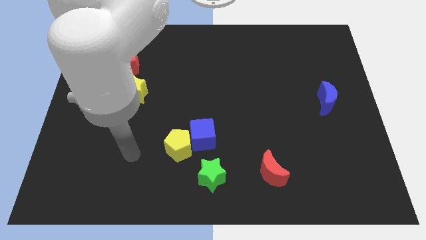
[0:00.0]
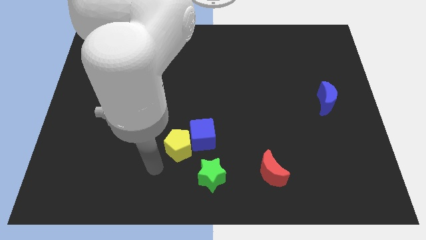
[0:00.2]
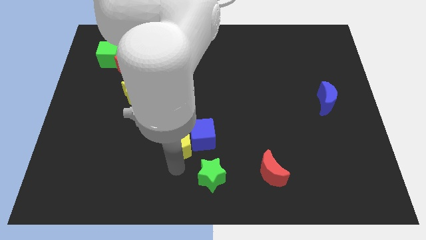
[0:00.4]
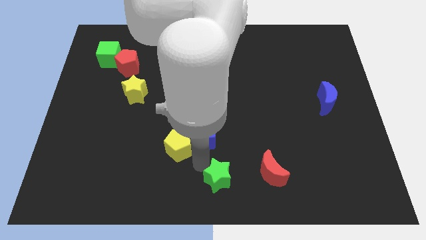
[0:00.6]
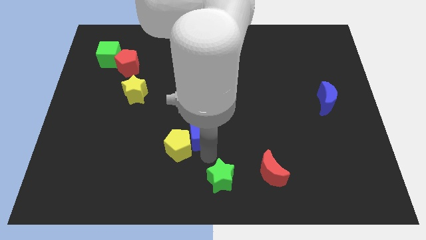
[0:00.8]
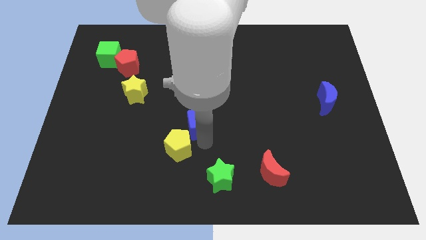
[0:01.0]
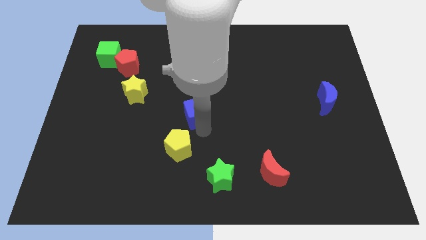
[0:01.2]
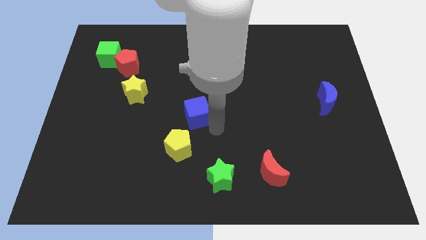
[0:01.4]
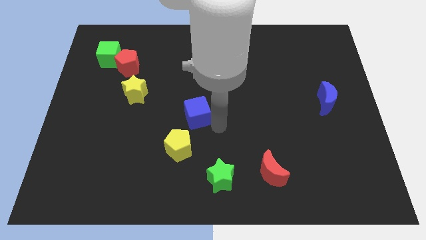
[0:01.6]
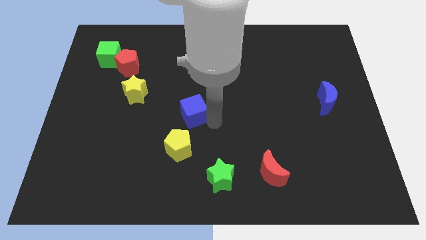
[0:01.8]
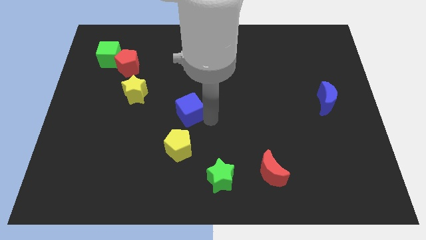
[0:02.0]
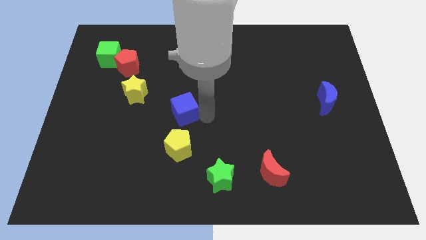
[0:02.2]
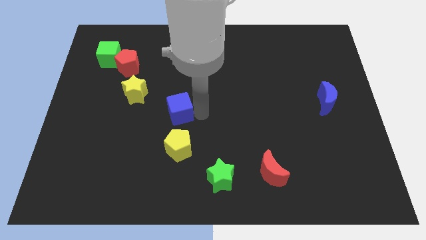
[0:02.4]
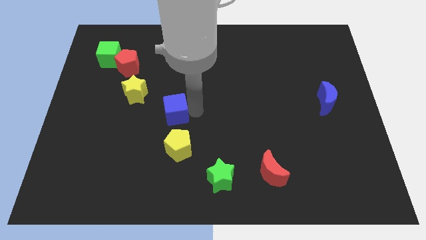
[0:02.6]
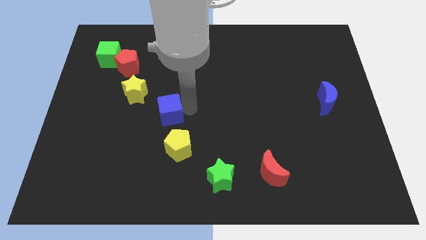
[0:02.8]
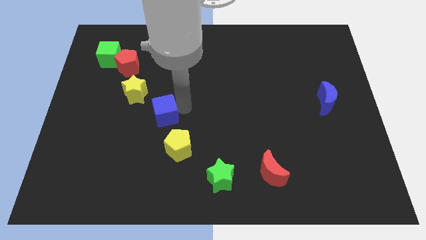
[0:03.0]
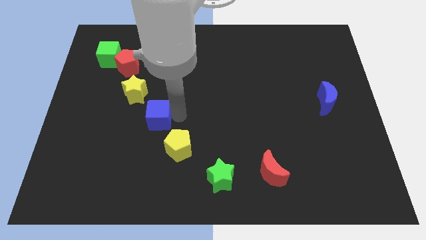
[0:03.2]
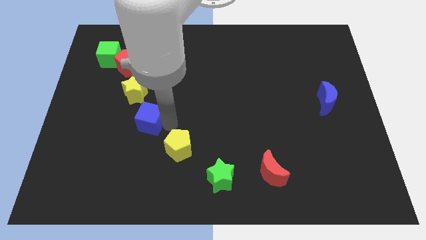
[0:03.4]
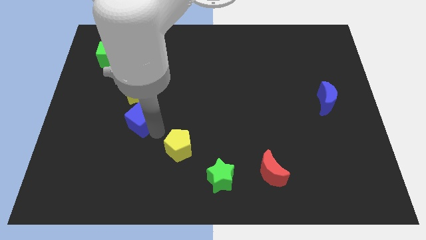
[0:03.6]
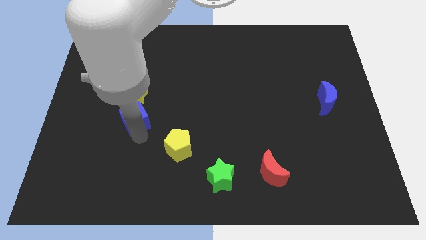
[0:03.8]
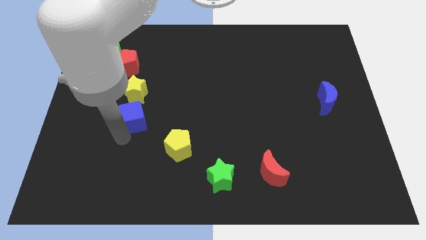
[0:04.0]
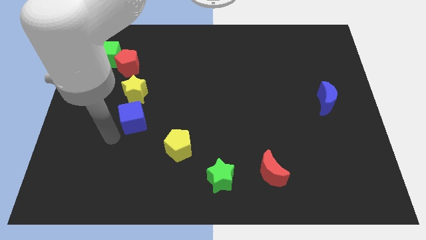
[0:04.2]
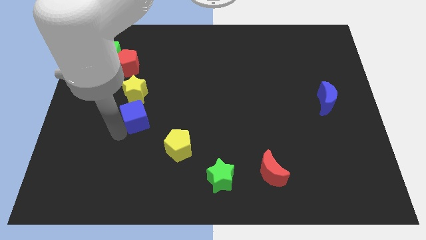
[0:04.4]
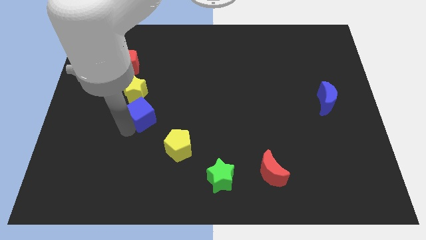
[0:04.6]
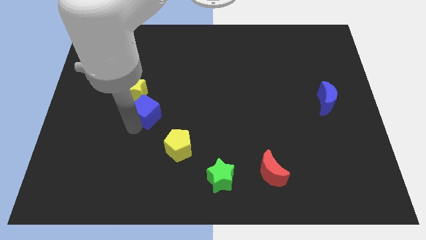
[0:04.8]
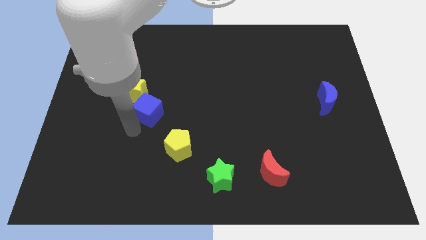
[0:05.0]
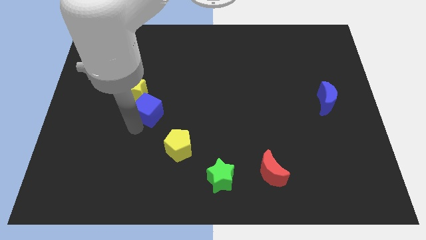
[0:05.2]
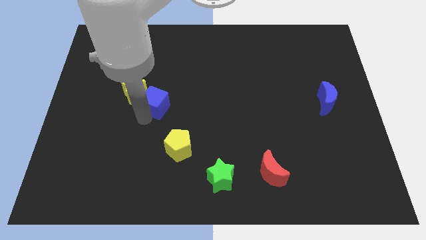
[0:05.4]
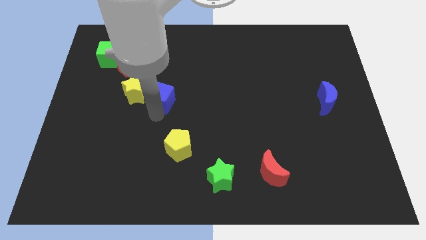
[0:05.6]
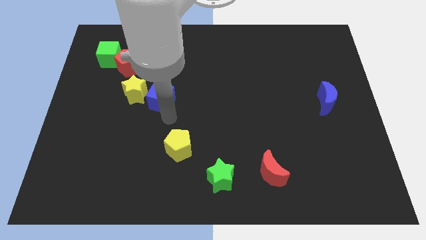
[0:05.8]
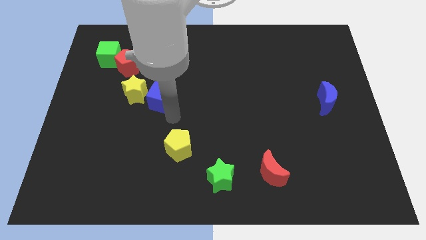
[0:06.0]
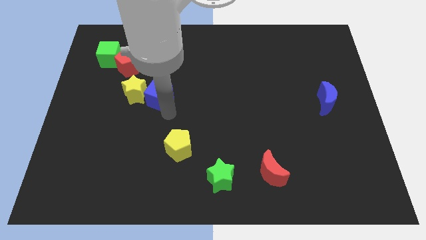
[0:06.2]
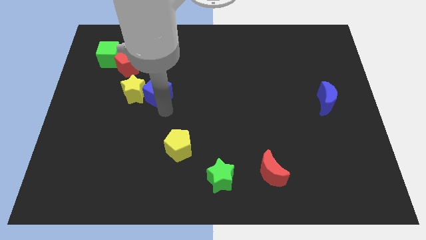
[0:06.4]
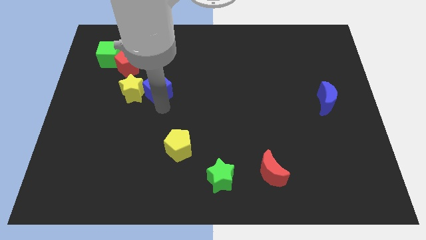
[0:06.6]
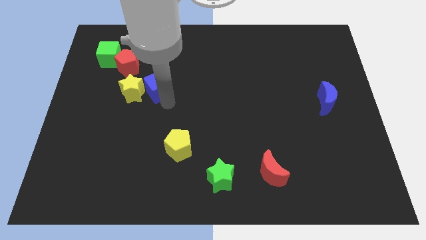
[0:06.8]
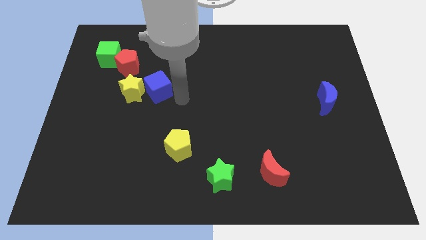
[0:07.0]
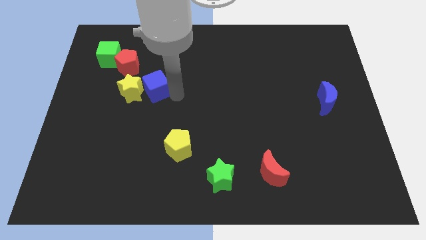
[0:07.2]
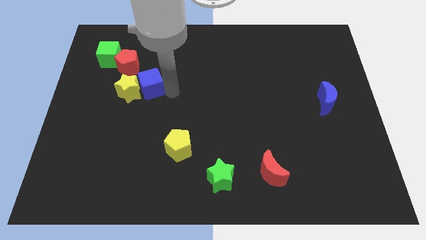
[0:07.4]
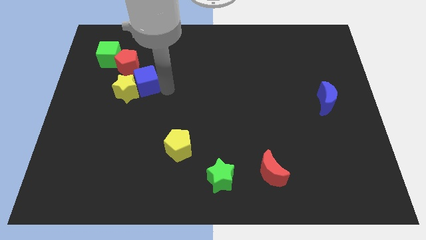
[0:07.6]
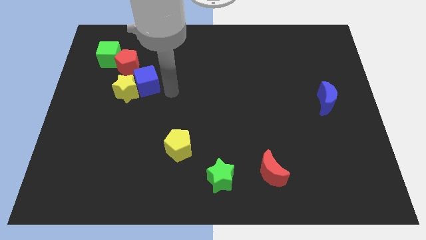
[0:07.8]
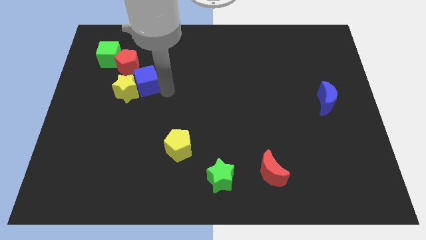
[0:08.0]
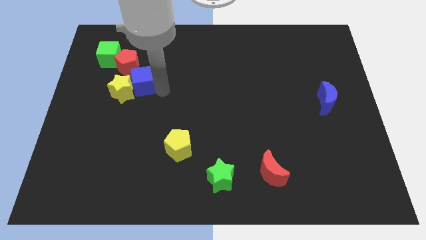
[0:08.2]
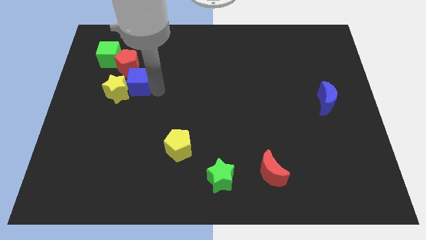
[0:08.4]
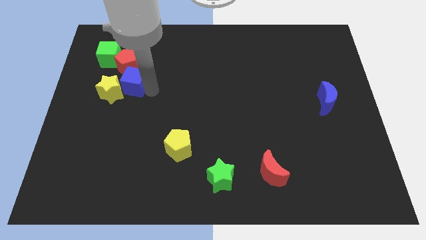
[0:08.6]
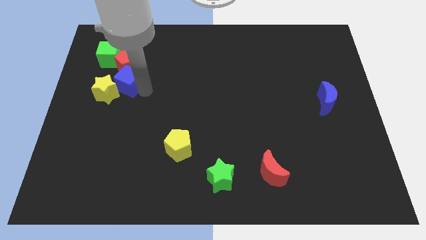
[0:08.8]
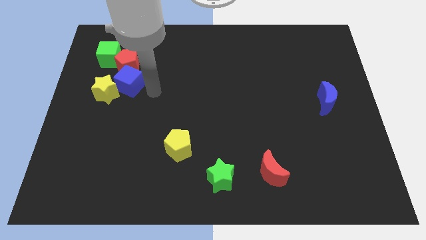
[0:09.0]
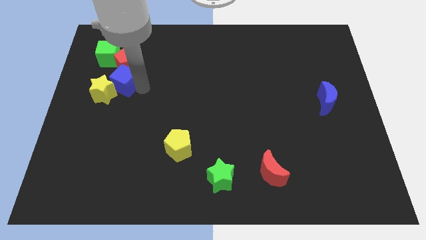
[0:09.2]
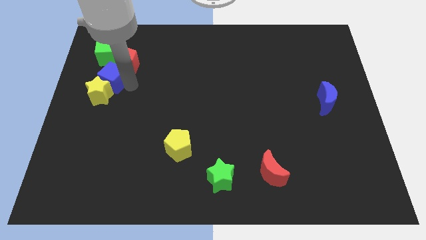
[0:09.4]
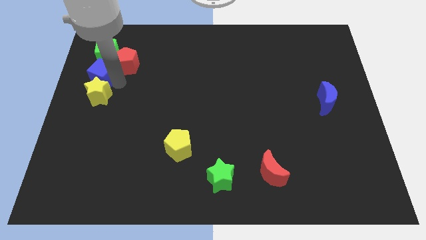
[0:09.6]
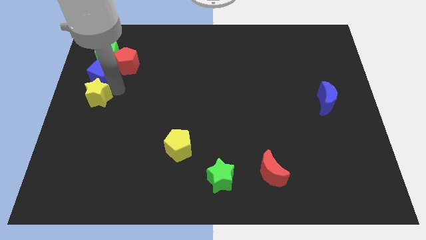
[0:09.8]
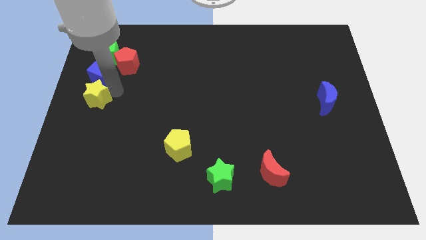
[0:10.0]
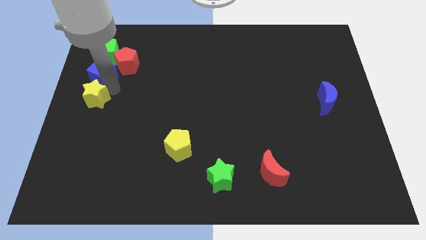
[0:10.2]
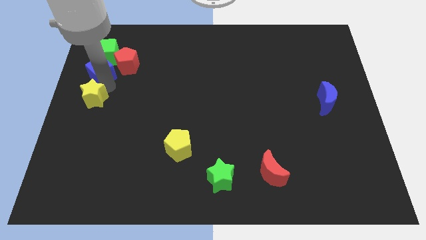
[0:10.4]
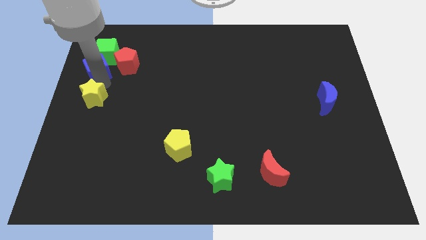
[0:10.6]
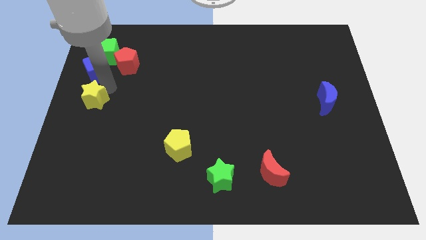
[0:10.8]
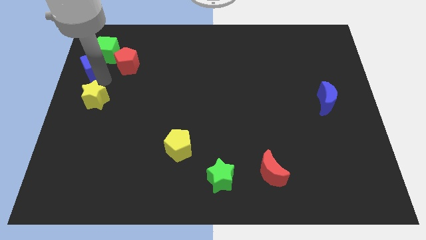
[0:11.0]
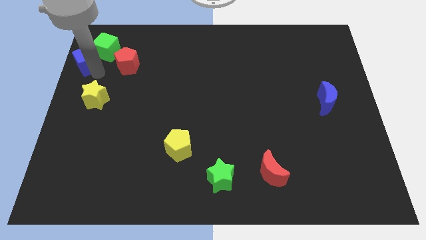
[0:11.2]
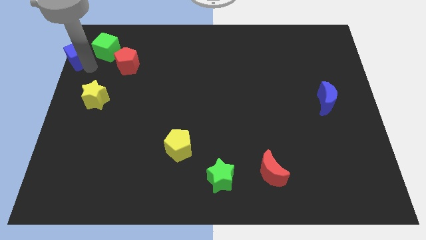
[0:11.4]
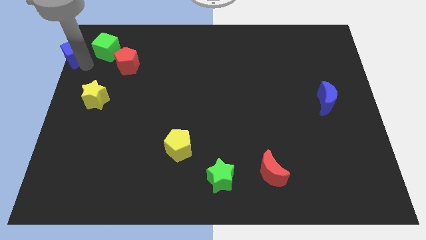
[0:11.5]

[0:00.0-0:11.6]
move the blue cube to the top left

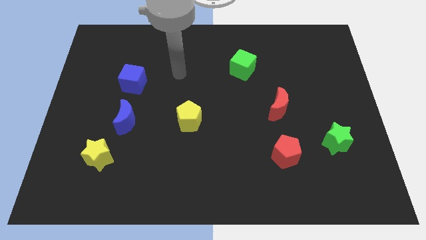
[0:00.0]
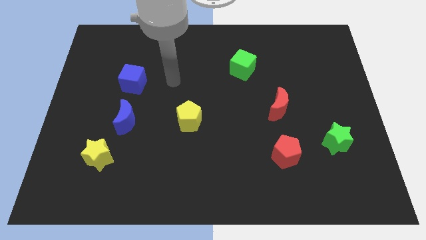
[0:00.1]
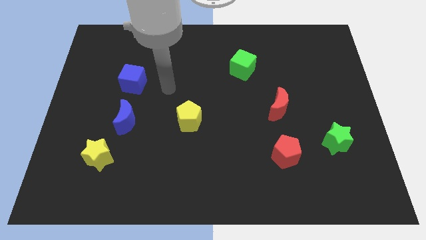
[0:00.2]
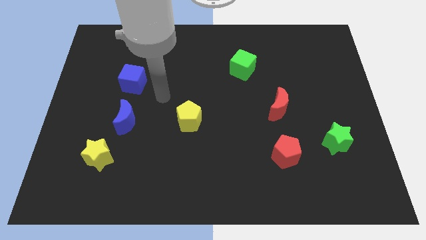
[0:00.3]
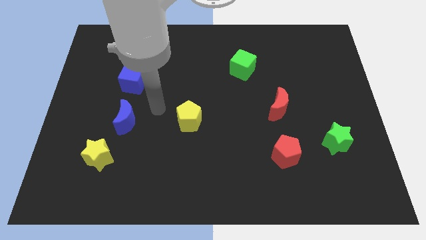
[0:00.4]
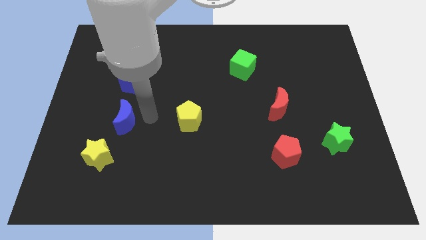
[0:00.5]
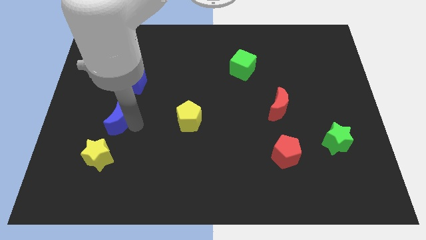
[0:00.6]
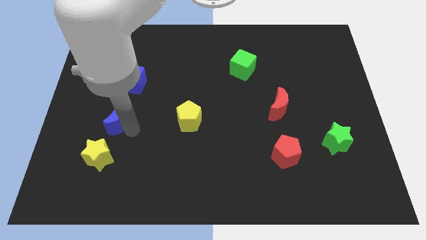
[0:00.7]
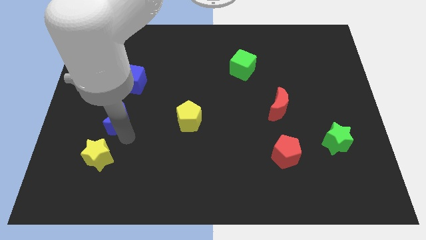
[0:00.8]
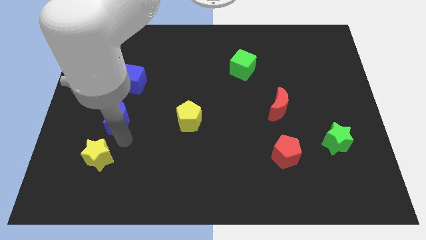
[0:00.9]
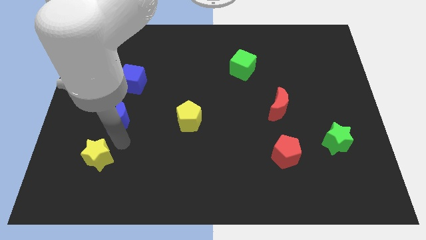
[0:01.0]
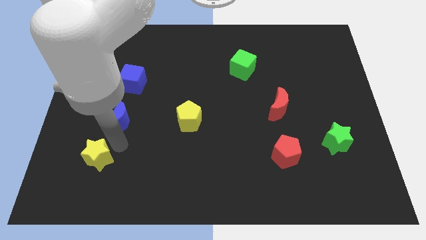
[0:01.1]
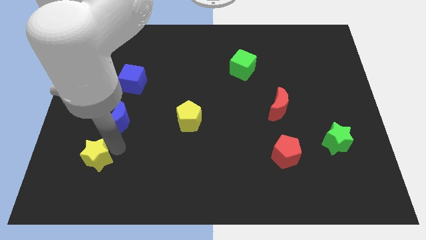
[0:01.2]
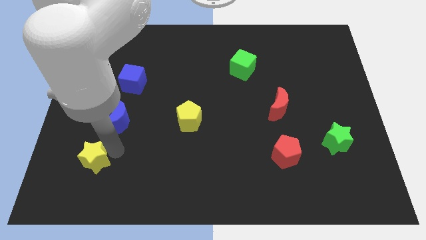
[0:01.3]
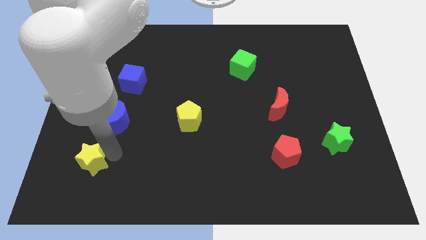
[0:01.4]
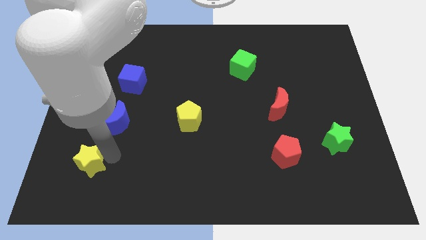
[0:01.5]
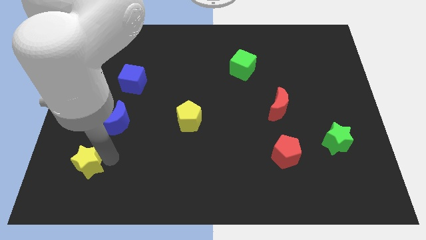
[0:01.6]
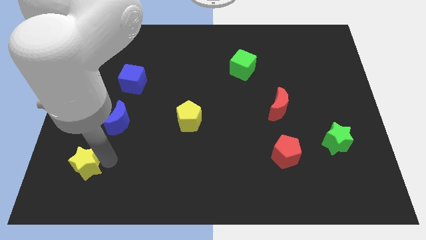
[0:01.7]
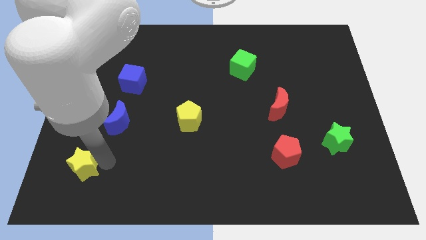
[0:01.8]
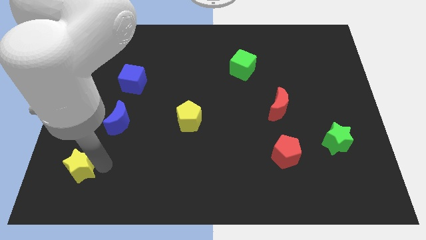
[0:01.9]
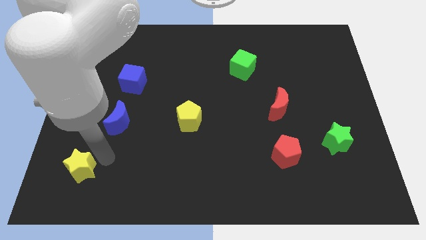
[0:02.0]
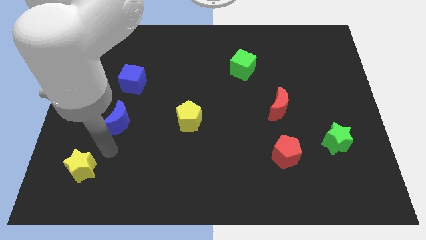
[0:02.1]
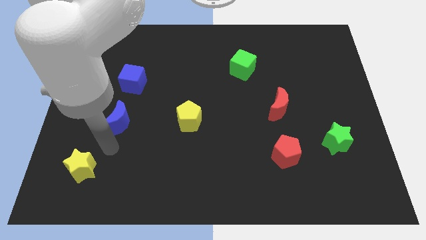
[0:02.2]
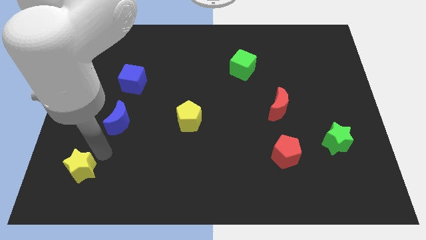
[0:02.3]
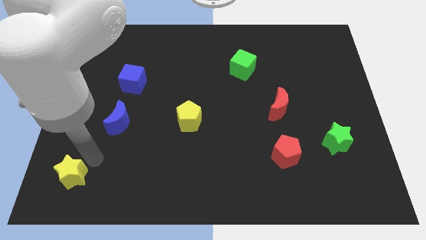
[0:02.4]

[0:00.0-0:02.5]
put the yellow star to the bottom left of the board
